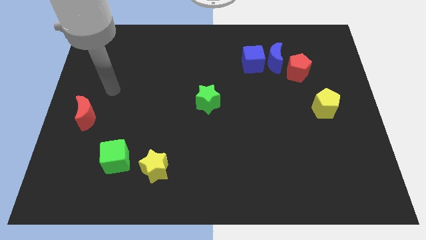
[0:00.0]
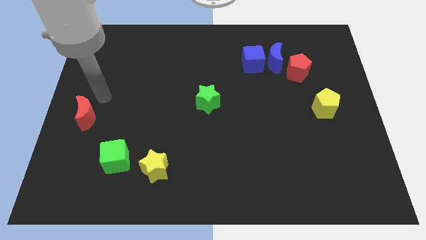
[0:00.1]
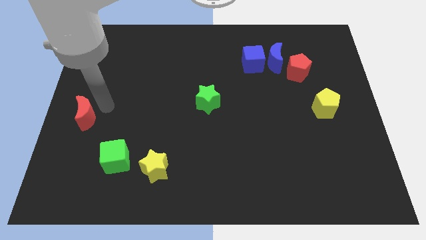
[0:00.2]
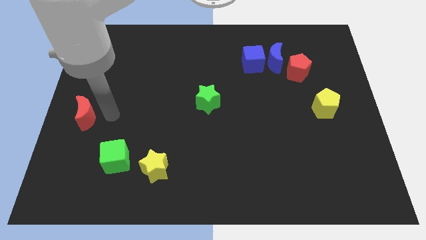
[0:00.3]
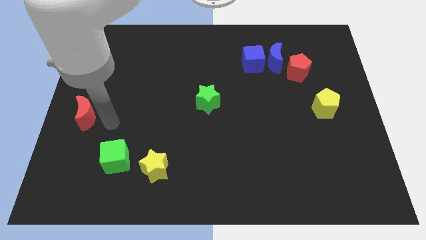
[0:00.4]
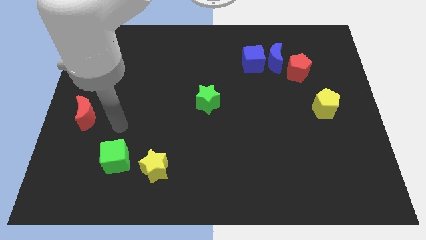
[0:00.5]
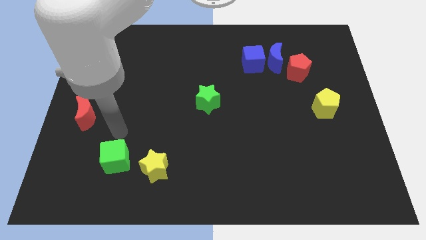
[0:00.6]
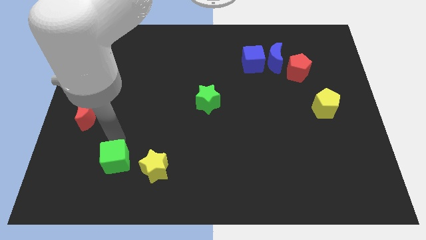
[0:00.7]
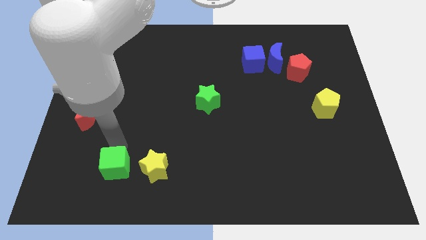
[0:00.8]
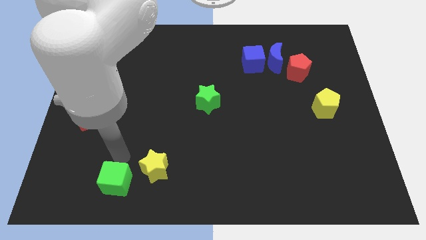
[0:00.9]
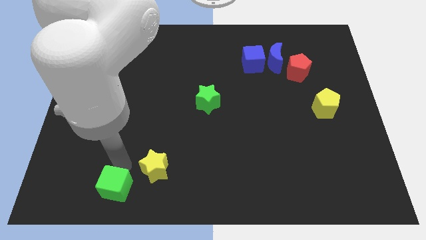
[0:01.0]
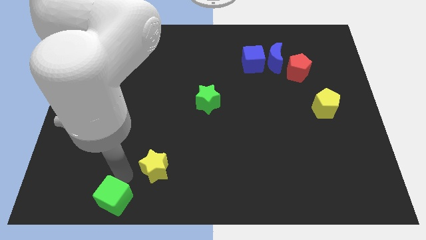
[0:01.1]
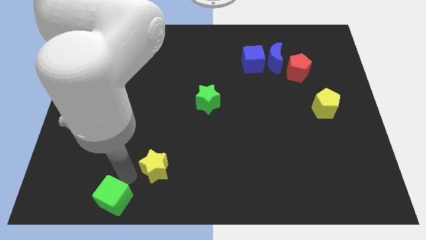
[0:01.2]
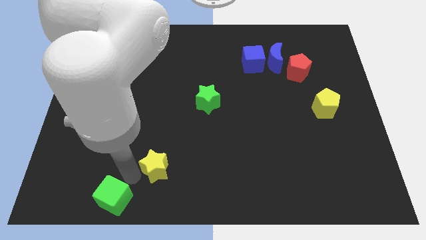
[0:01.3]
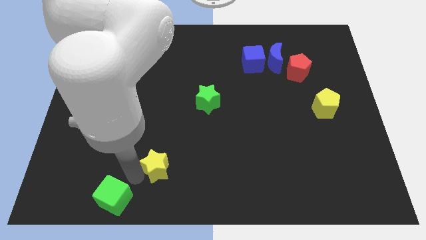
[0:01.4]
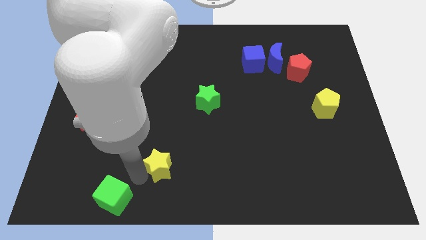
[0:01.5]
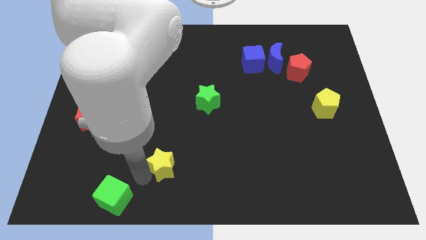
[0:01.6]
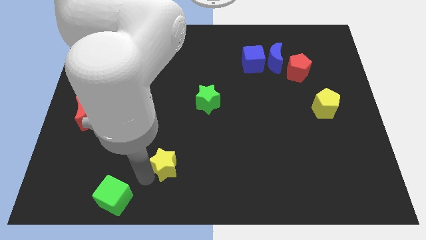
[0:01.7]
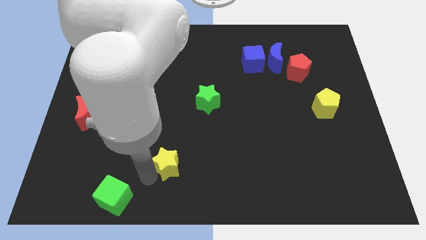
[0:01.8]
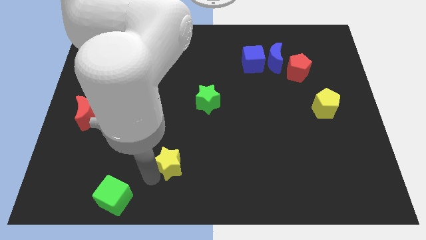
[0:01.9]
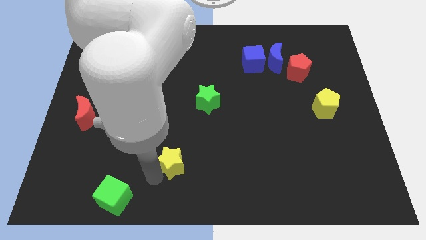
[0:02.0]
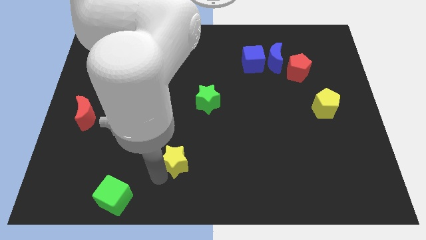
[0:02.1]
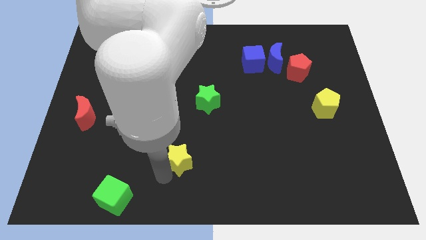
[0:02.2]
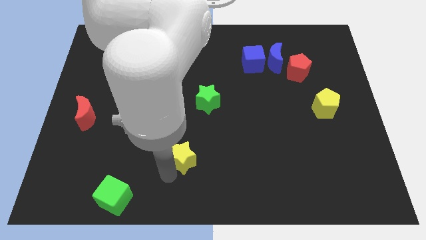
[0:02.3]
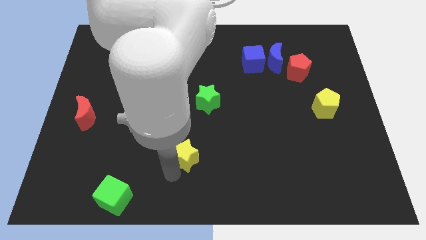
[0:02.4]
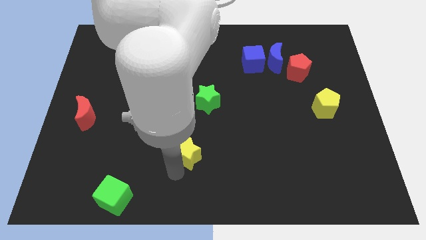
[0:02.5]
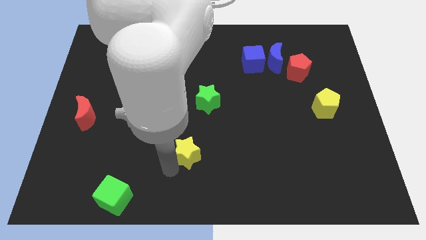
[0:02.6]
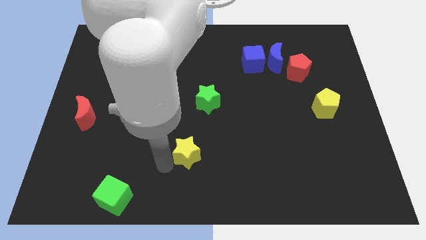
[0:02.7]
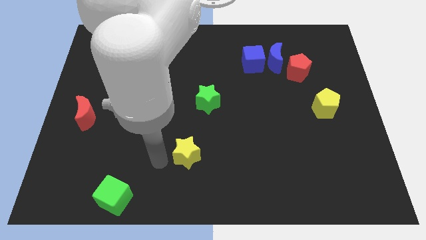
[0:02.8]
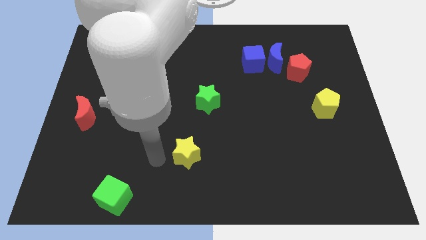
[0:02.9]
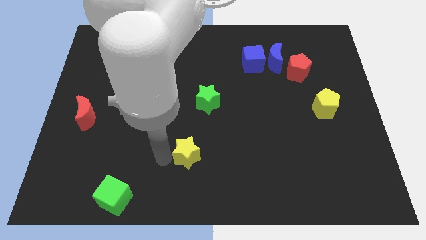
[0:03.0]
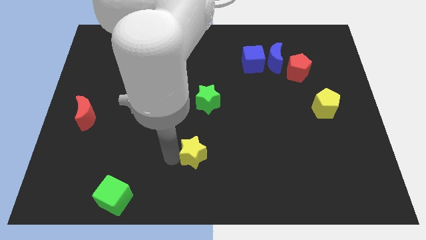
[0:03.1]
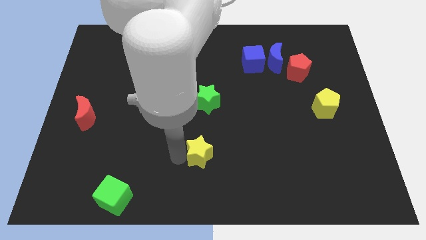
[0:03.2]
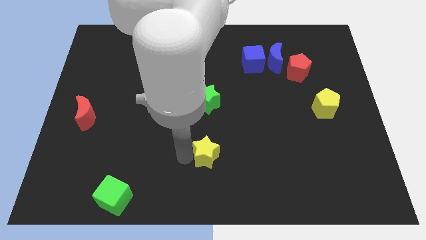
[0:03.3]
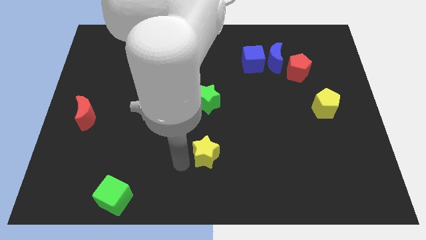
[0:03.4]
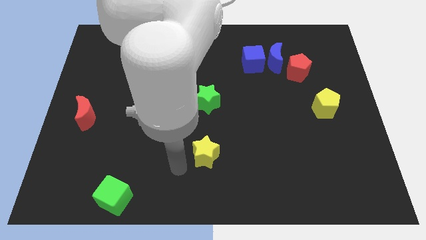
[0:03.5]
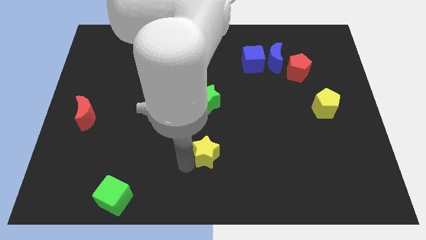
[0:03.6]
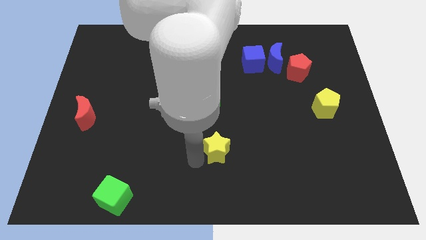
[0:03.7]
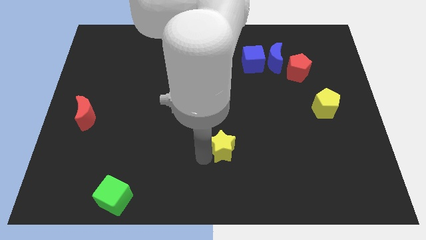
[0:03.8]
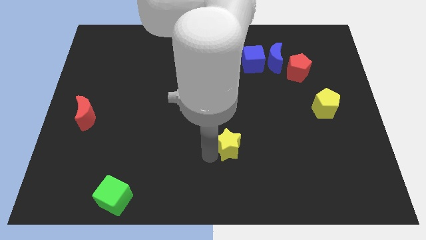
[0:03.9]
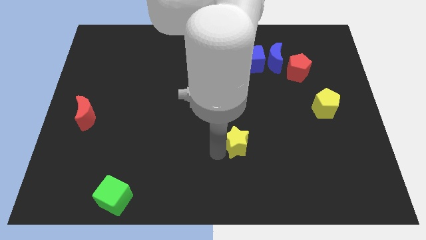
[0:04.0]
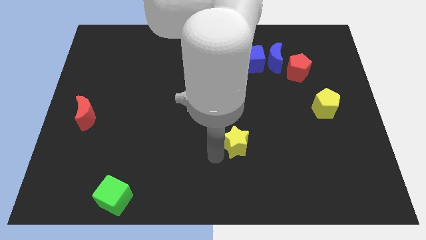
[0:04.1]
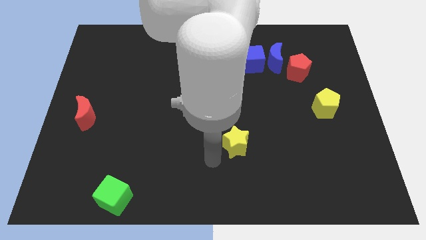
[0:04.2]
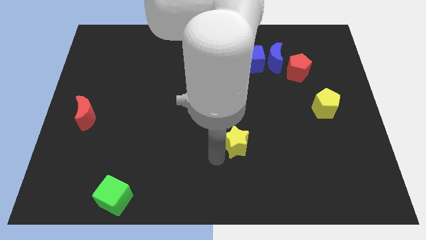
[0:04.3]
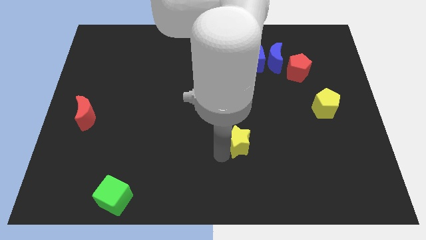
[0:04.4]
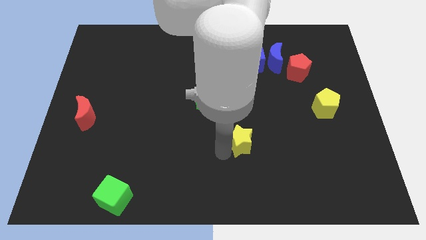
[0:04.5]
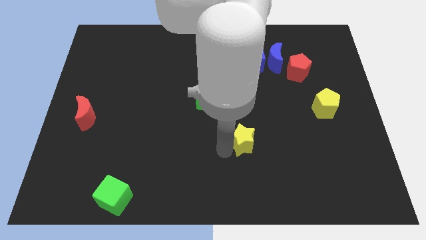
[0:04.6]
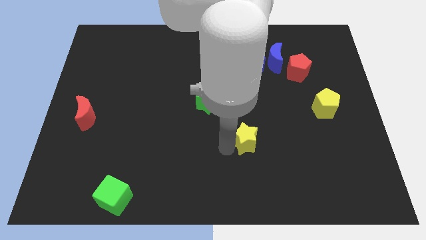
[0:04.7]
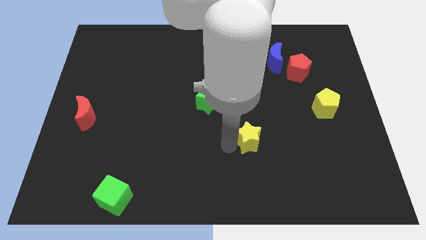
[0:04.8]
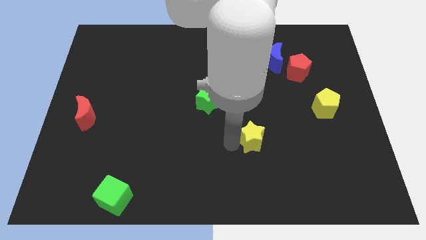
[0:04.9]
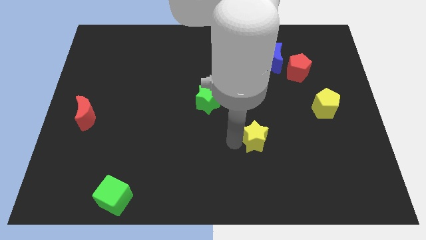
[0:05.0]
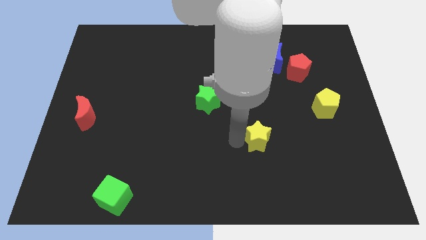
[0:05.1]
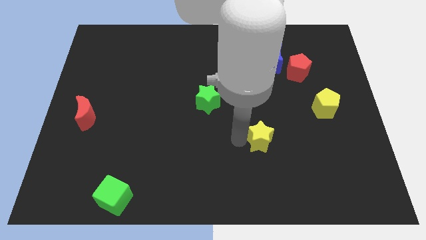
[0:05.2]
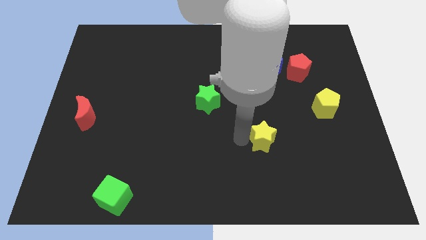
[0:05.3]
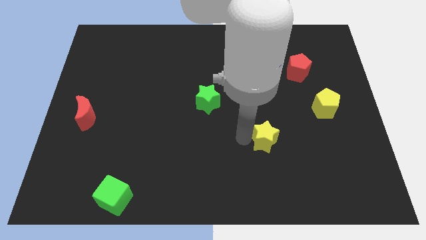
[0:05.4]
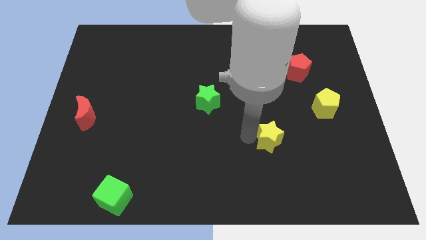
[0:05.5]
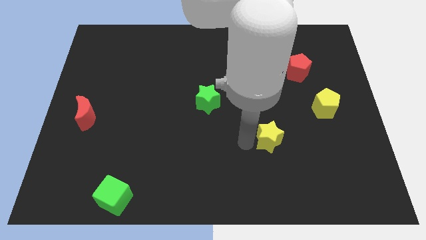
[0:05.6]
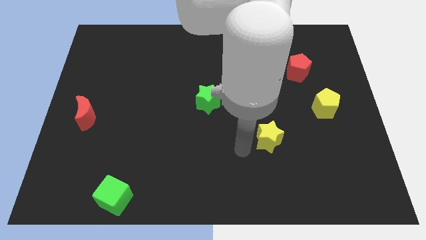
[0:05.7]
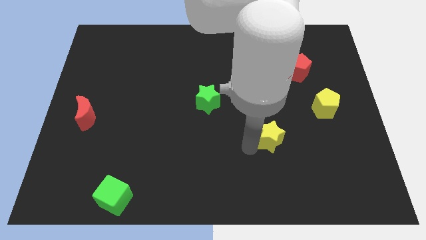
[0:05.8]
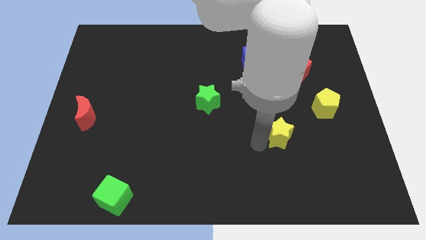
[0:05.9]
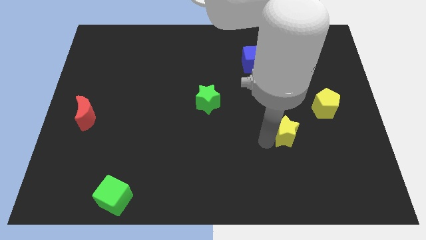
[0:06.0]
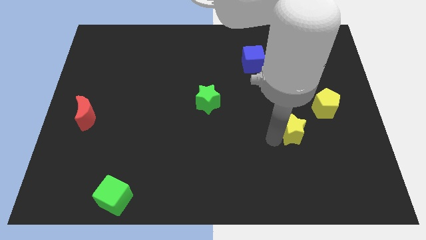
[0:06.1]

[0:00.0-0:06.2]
slide the yellow star diagonally down and to the left of the yellow pentagon

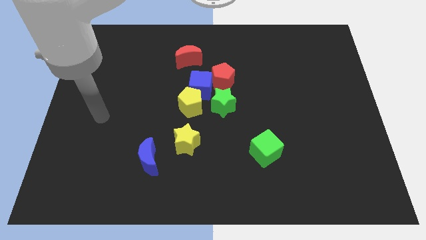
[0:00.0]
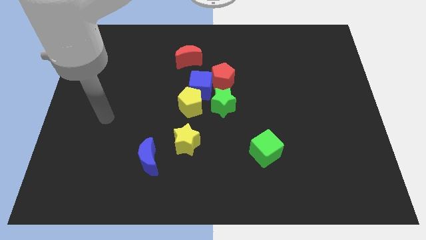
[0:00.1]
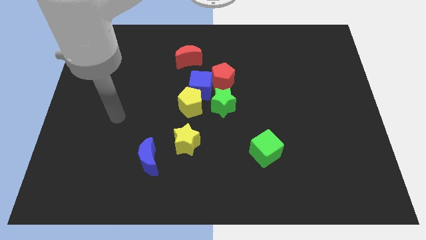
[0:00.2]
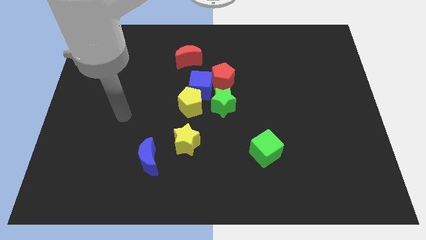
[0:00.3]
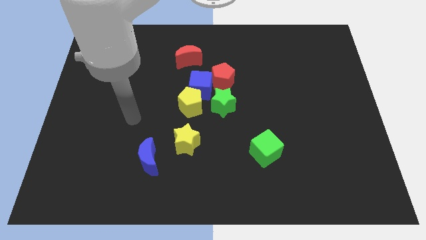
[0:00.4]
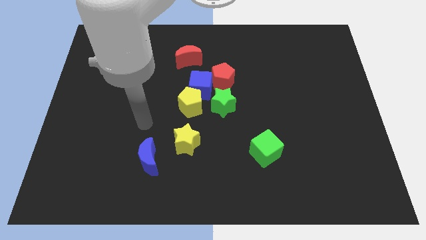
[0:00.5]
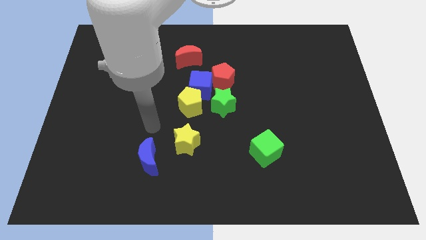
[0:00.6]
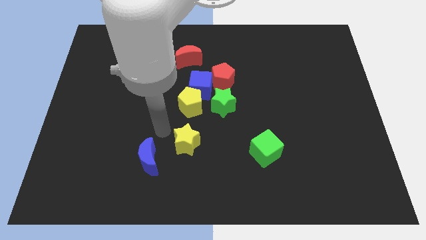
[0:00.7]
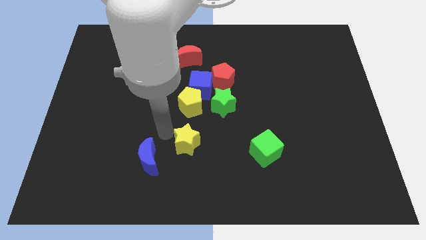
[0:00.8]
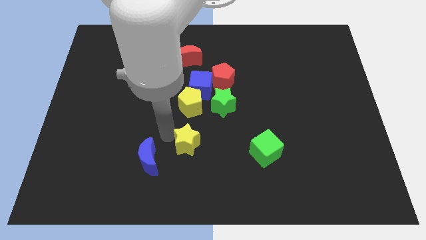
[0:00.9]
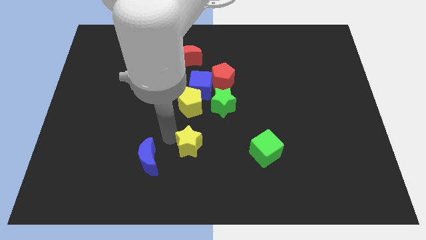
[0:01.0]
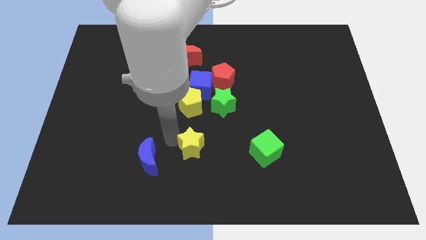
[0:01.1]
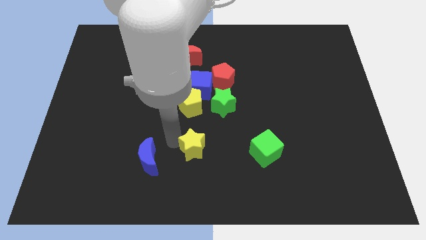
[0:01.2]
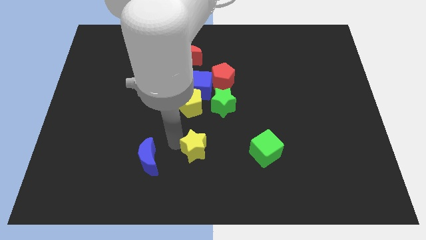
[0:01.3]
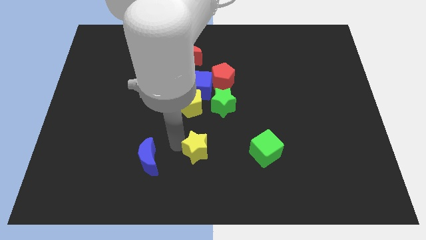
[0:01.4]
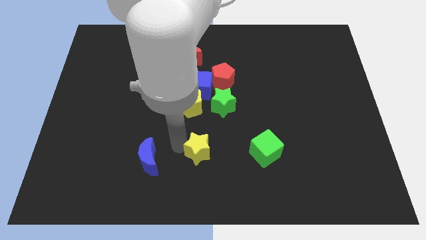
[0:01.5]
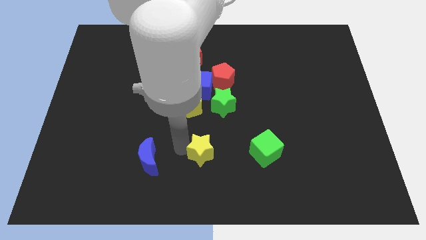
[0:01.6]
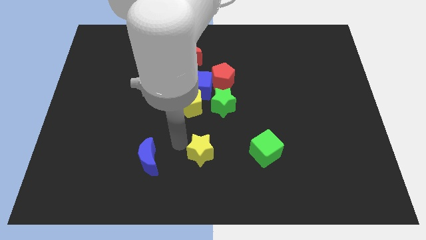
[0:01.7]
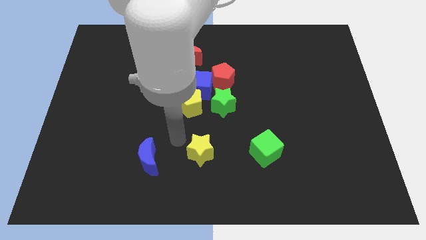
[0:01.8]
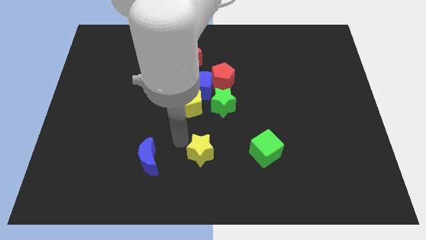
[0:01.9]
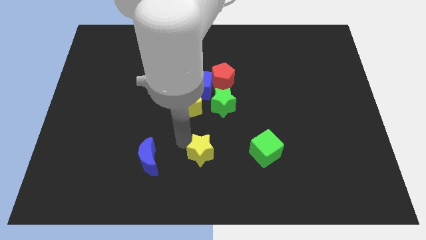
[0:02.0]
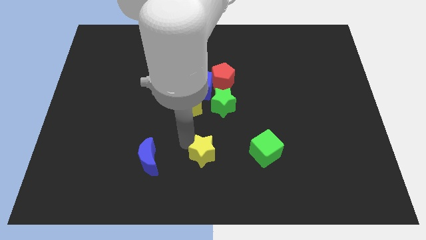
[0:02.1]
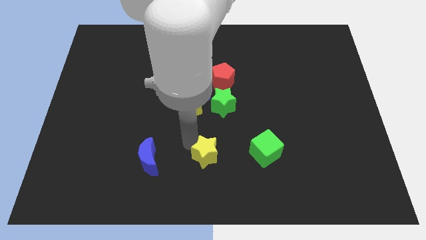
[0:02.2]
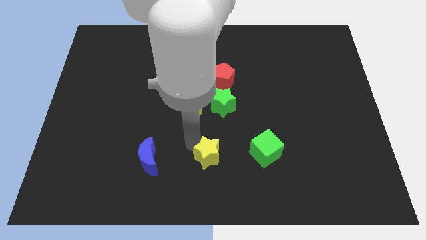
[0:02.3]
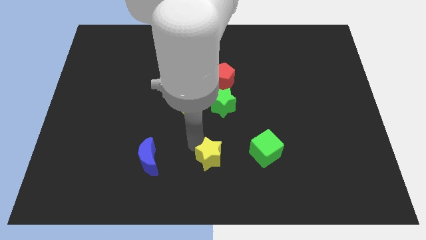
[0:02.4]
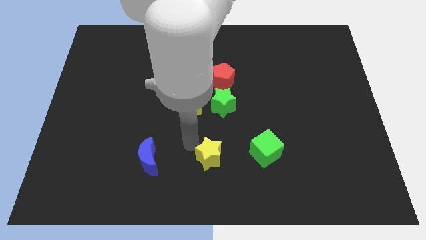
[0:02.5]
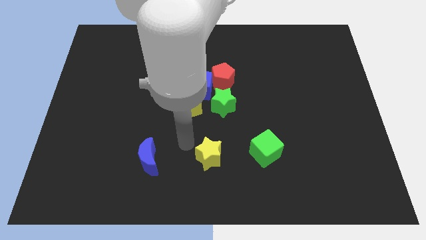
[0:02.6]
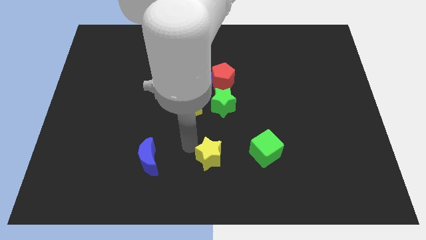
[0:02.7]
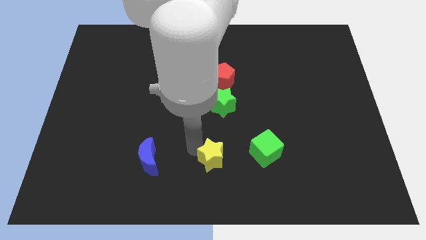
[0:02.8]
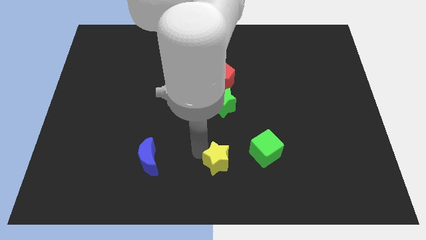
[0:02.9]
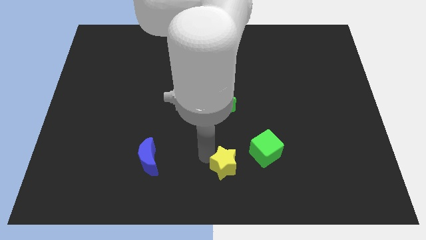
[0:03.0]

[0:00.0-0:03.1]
slide the yellow star to the bottom left of the green cube
